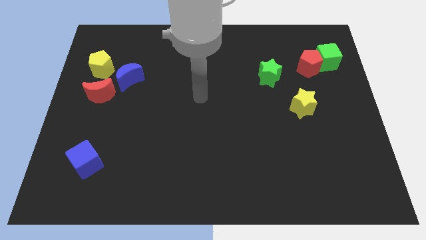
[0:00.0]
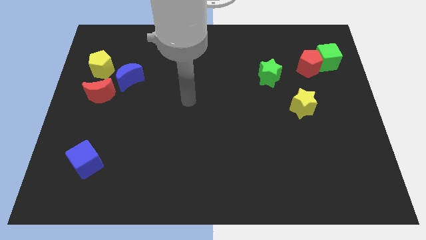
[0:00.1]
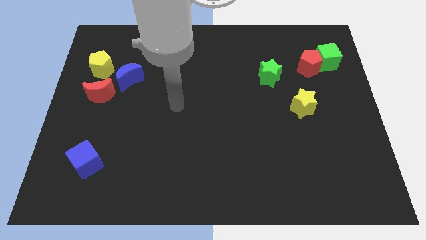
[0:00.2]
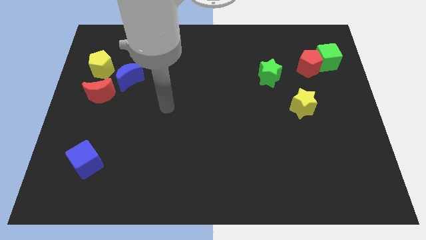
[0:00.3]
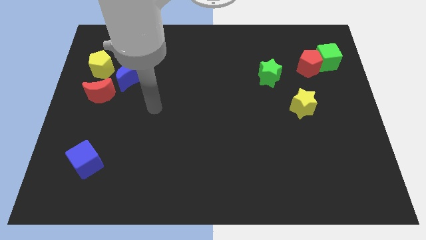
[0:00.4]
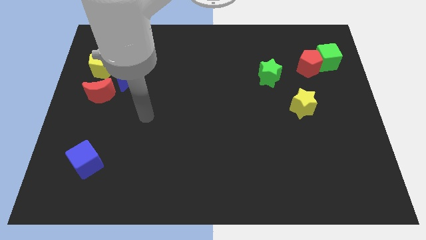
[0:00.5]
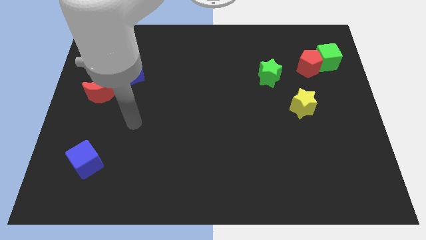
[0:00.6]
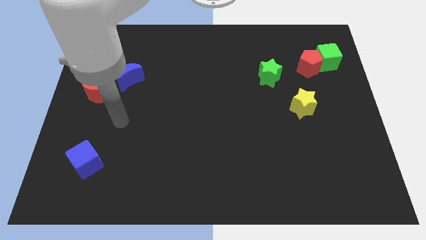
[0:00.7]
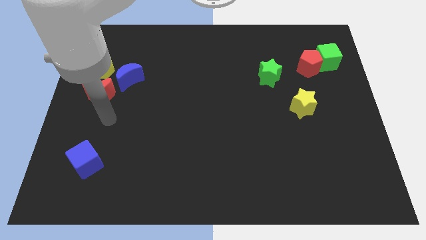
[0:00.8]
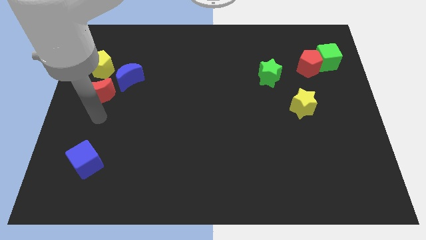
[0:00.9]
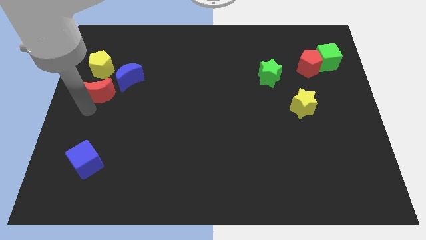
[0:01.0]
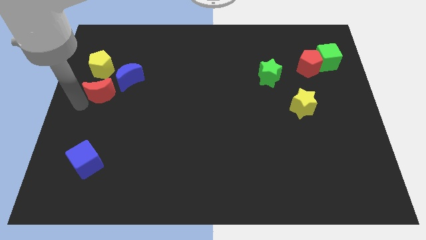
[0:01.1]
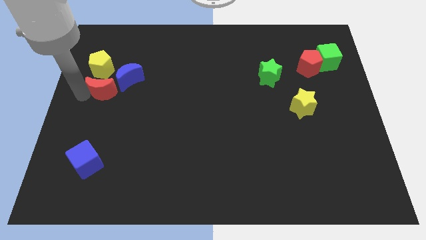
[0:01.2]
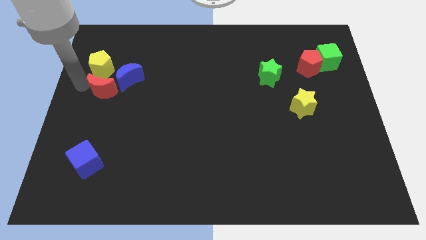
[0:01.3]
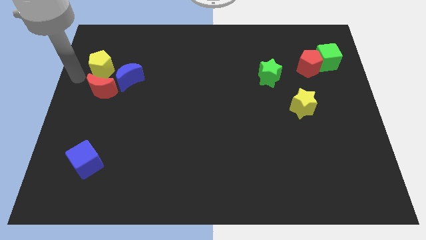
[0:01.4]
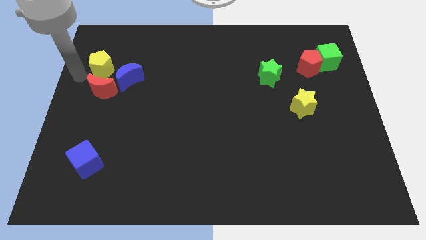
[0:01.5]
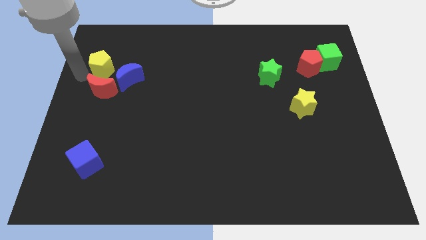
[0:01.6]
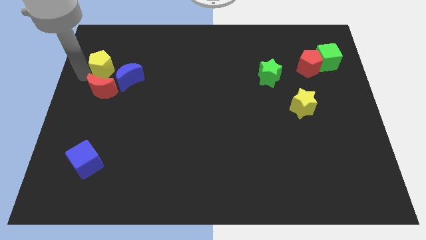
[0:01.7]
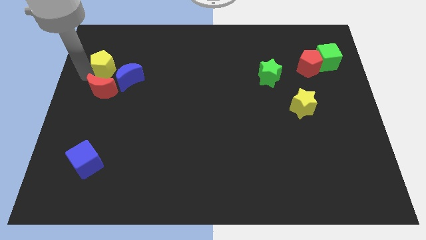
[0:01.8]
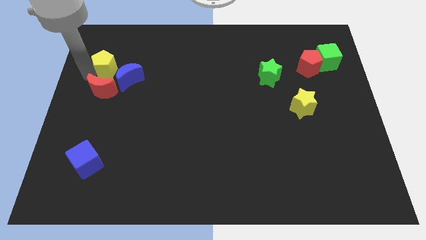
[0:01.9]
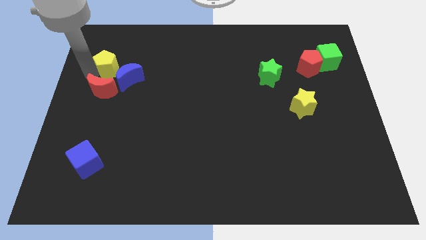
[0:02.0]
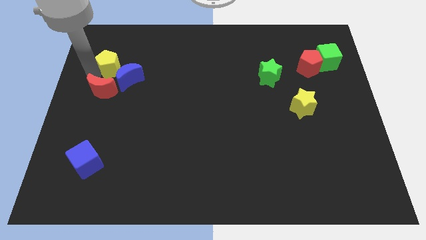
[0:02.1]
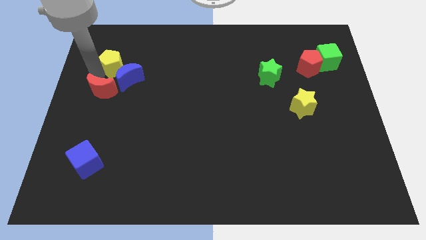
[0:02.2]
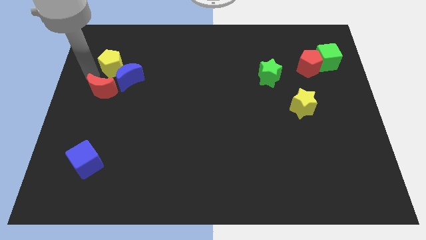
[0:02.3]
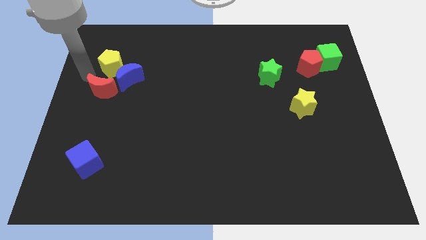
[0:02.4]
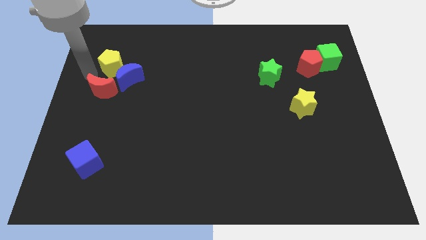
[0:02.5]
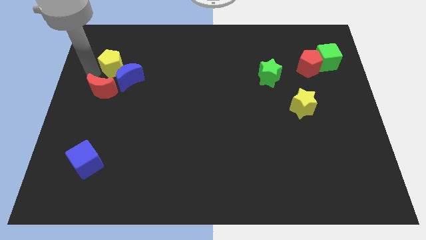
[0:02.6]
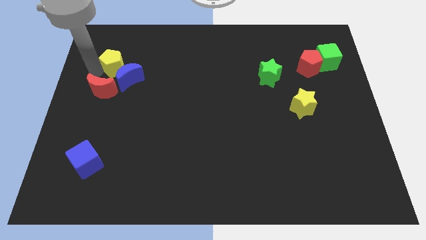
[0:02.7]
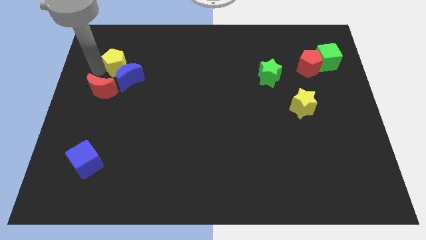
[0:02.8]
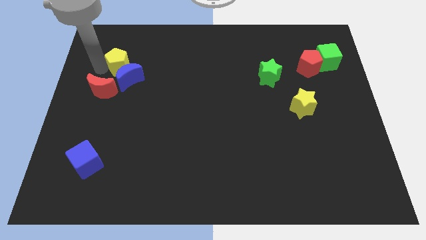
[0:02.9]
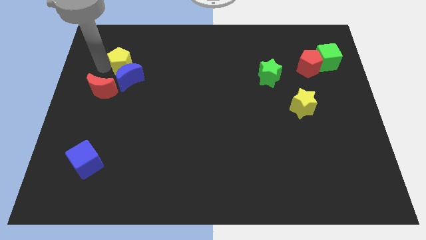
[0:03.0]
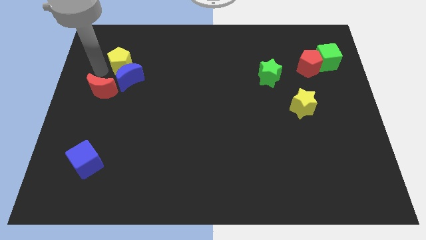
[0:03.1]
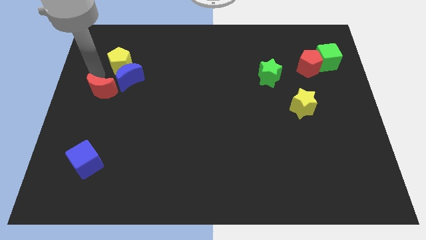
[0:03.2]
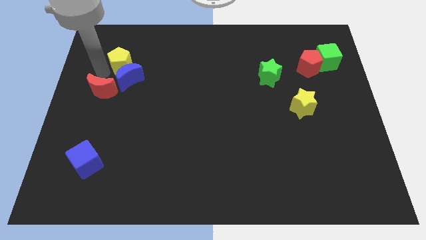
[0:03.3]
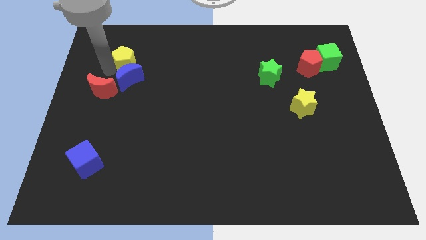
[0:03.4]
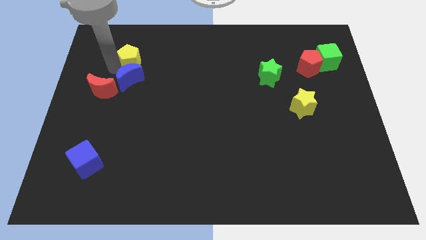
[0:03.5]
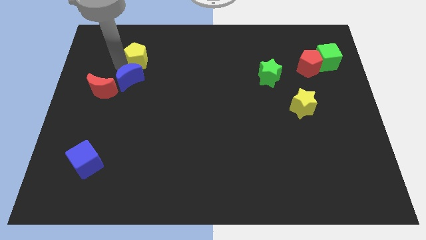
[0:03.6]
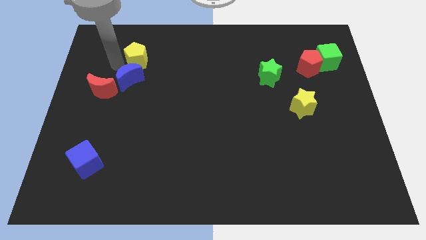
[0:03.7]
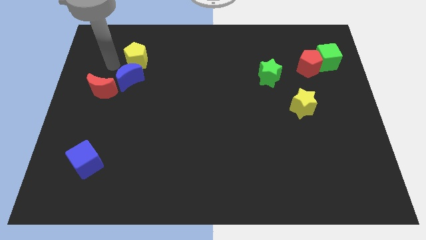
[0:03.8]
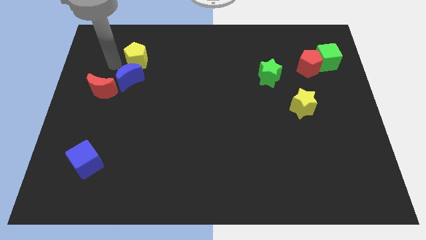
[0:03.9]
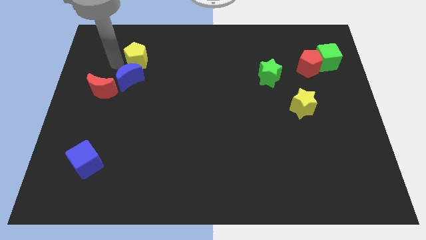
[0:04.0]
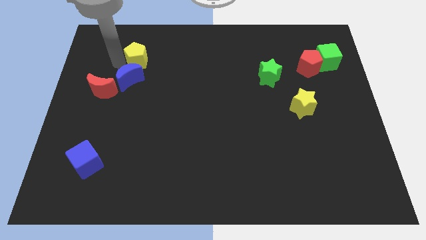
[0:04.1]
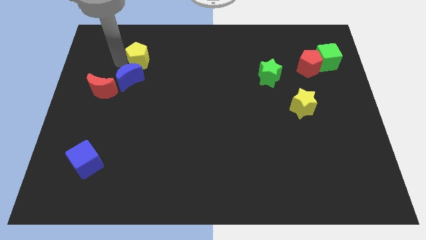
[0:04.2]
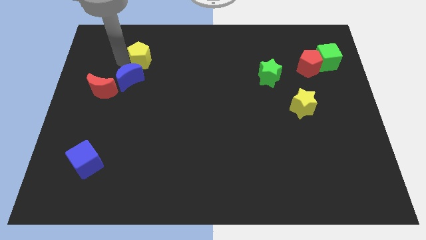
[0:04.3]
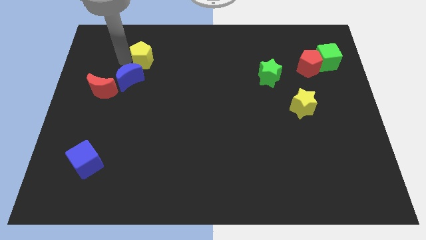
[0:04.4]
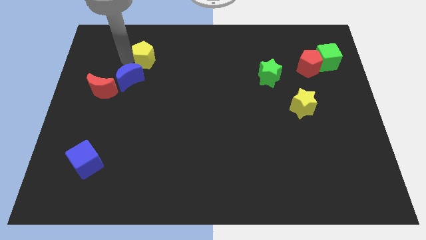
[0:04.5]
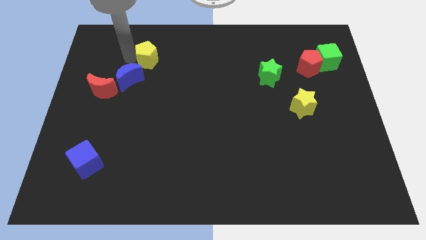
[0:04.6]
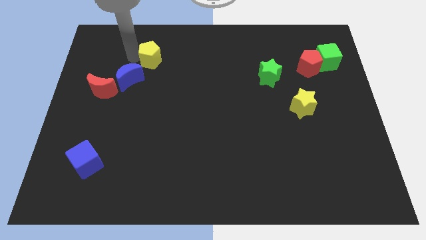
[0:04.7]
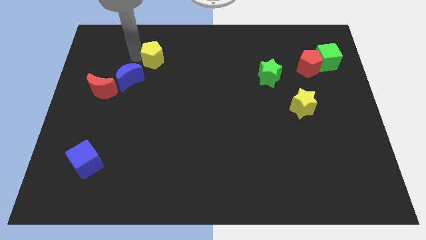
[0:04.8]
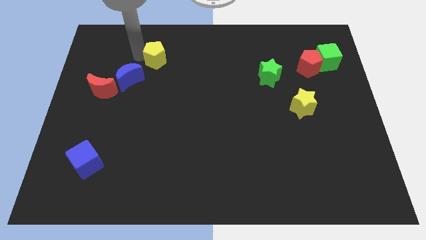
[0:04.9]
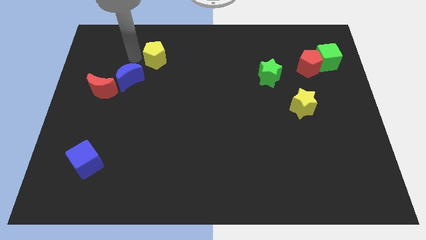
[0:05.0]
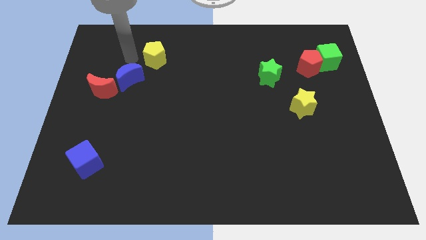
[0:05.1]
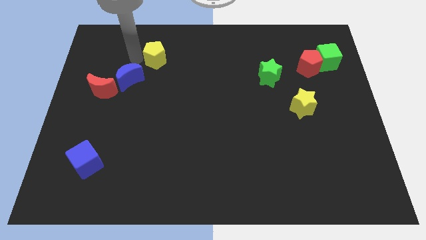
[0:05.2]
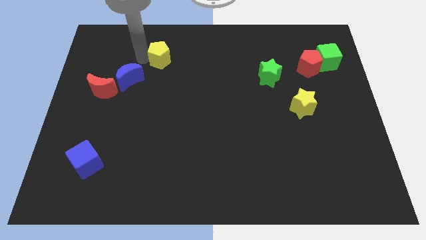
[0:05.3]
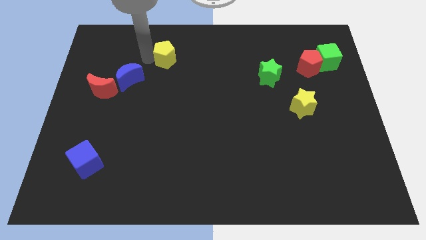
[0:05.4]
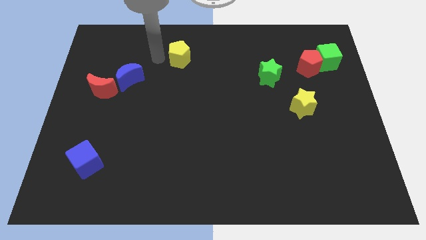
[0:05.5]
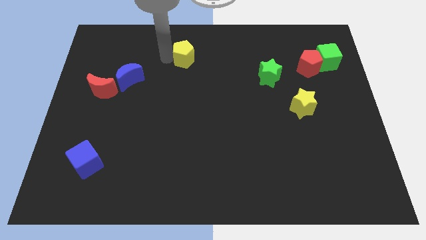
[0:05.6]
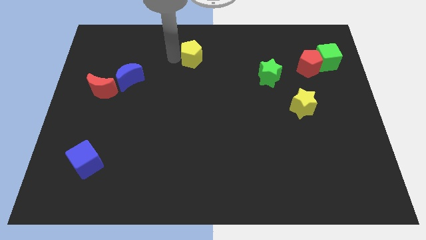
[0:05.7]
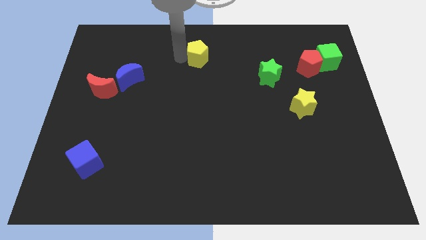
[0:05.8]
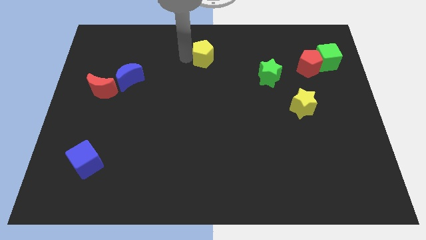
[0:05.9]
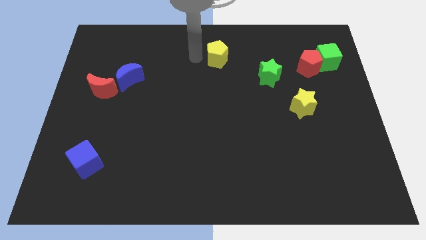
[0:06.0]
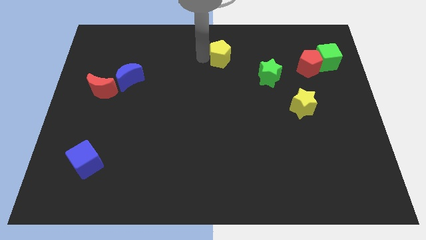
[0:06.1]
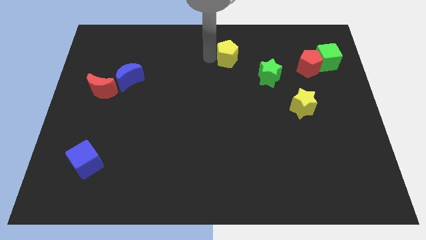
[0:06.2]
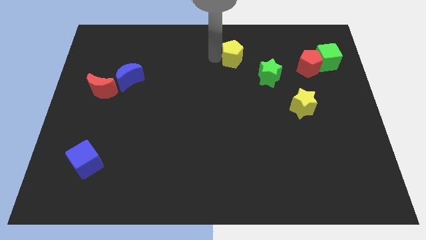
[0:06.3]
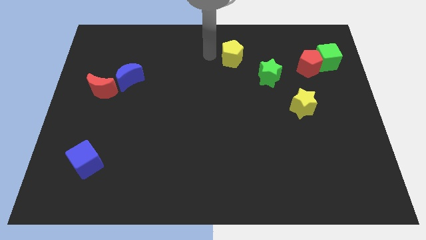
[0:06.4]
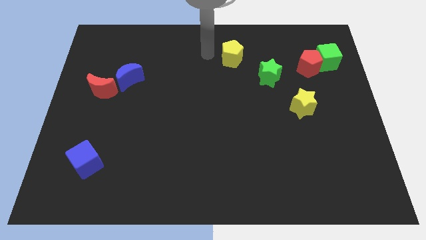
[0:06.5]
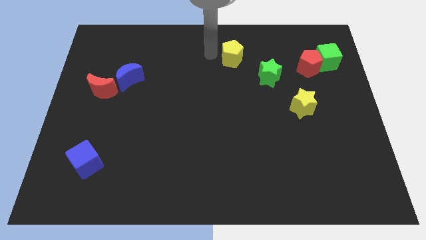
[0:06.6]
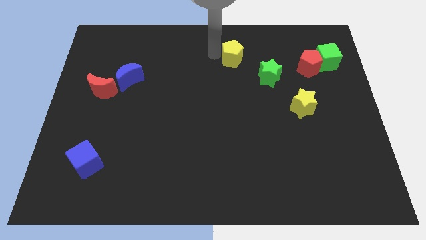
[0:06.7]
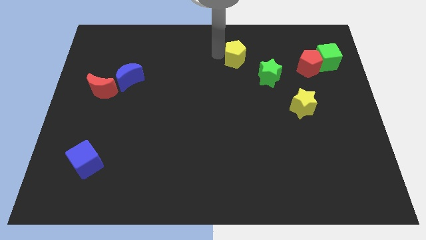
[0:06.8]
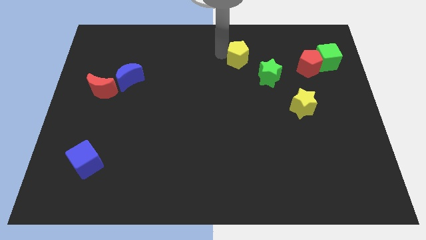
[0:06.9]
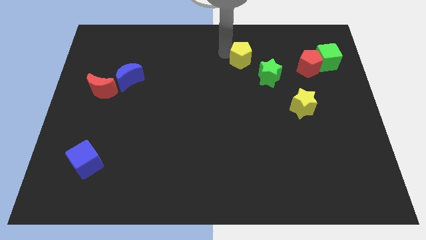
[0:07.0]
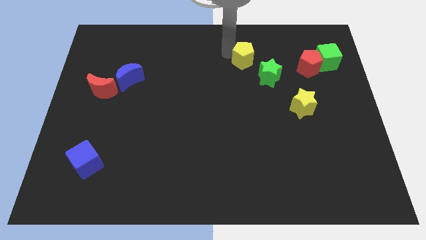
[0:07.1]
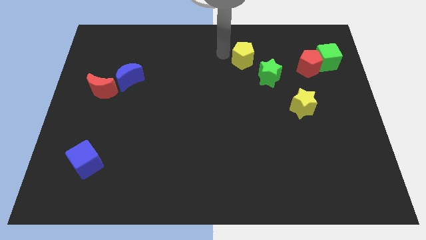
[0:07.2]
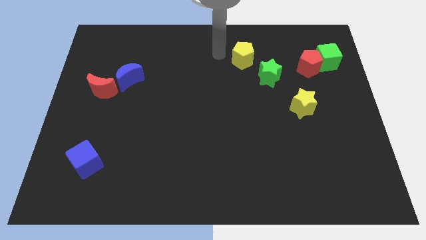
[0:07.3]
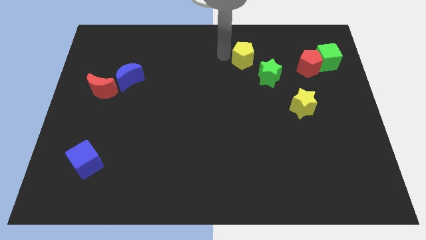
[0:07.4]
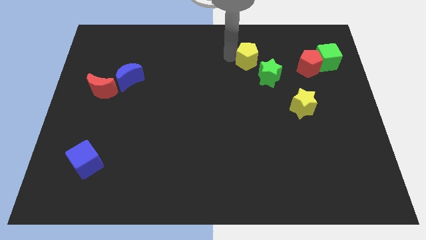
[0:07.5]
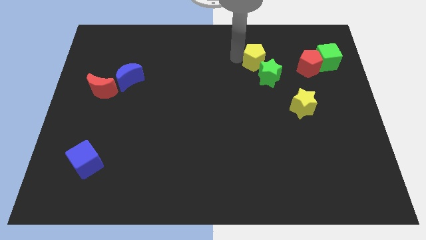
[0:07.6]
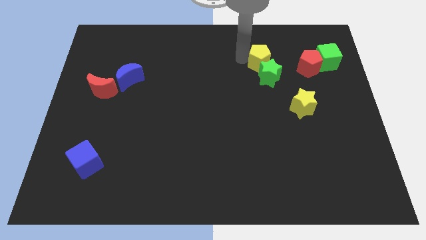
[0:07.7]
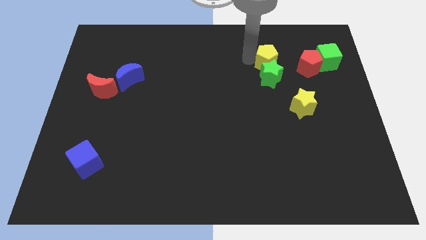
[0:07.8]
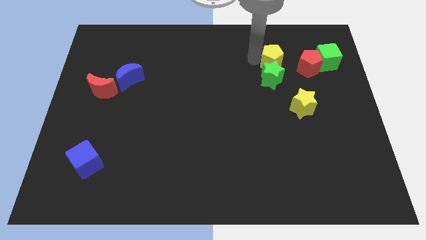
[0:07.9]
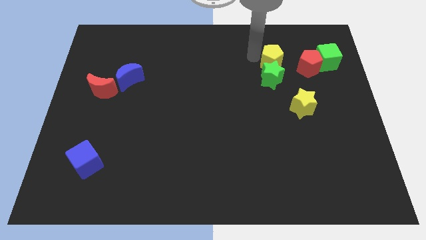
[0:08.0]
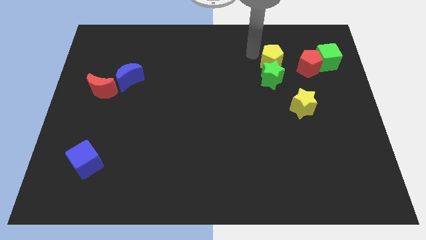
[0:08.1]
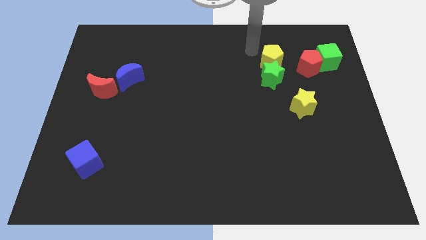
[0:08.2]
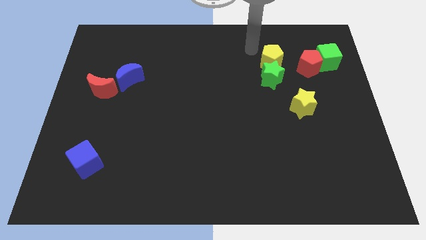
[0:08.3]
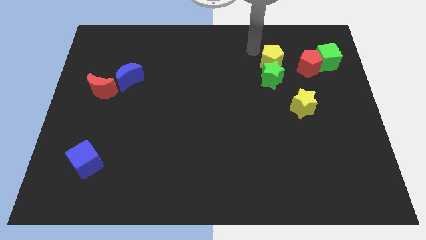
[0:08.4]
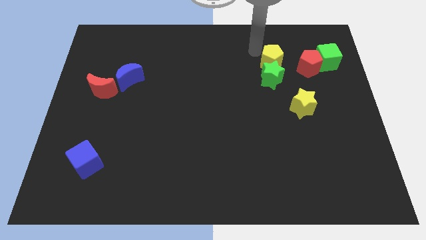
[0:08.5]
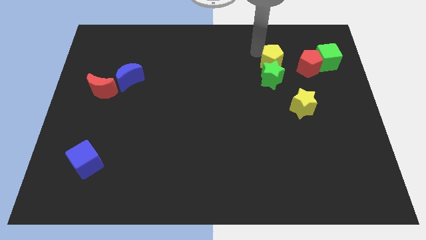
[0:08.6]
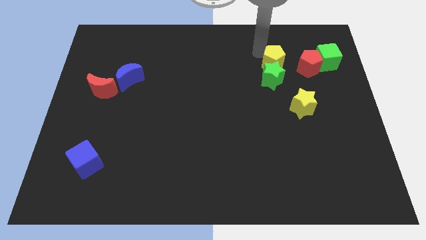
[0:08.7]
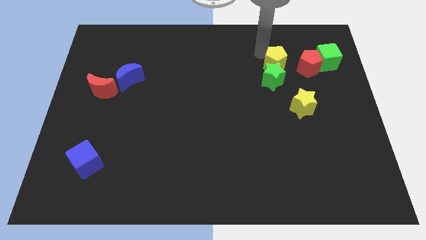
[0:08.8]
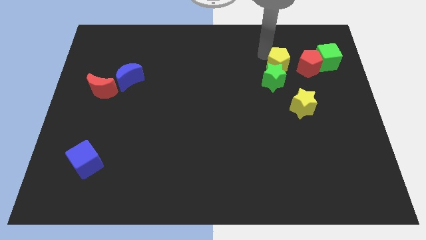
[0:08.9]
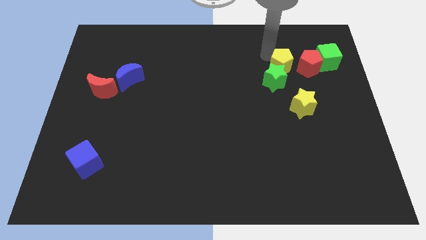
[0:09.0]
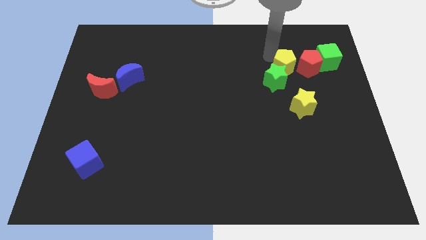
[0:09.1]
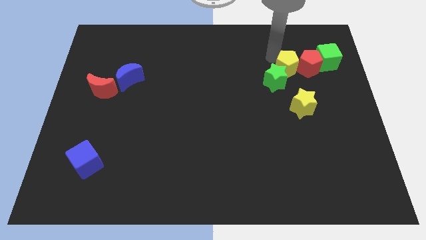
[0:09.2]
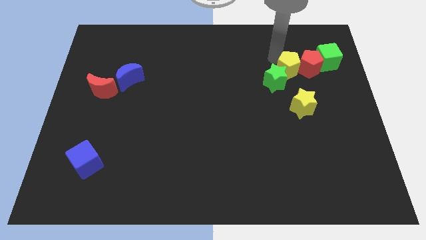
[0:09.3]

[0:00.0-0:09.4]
move the yellow pentagon to the right of the green star
